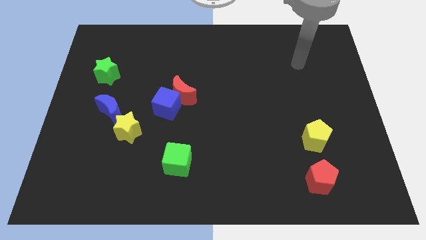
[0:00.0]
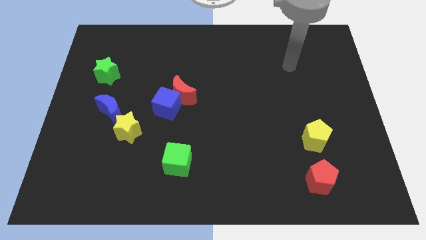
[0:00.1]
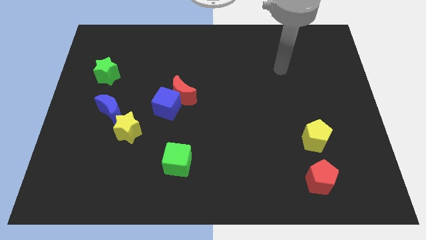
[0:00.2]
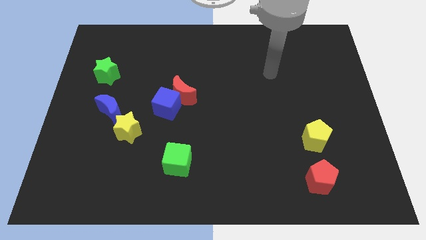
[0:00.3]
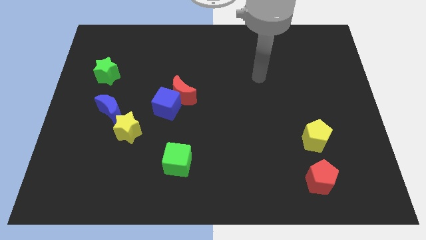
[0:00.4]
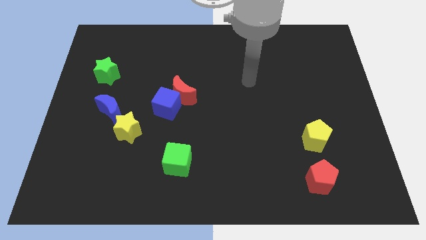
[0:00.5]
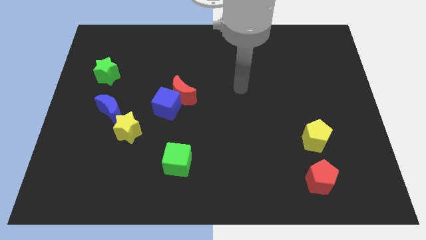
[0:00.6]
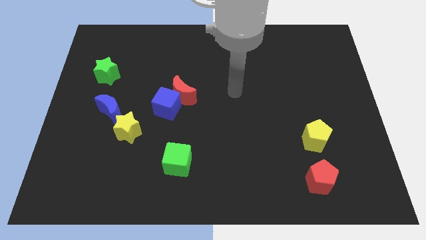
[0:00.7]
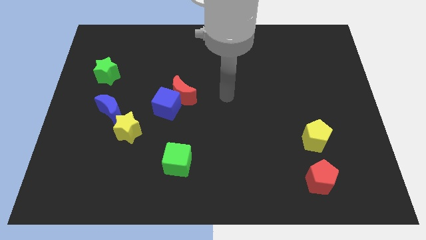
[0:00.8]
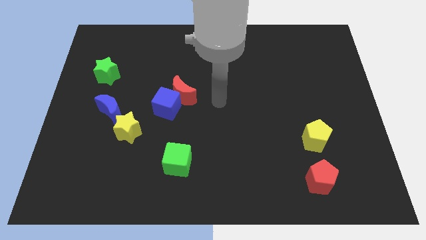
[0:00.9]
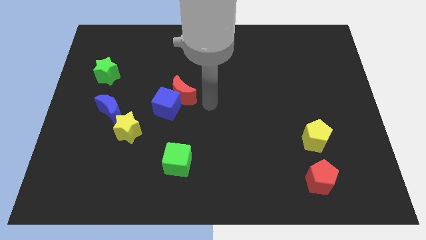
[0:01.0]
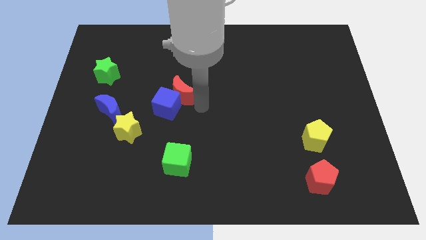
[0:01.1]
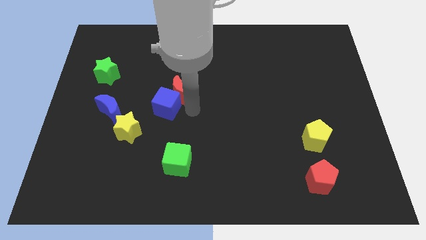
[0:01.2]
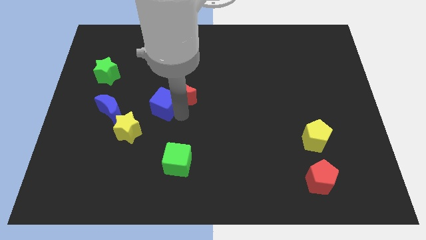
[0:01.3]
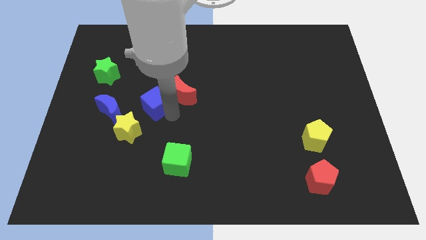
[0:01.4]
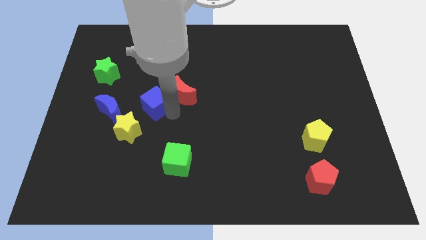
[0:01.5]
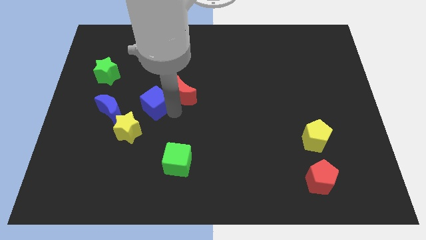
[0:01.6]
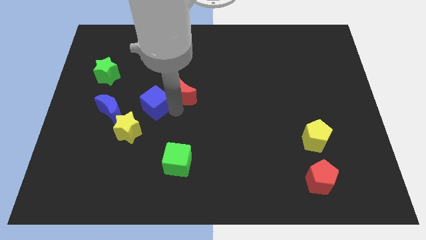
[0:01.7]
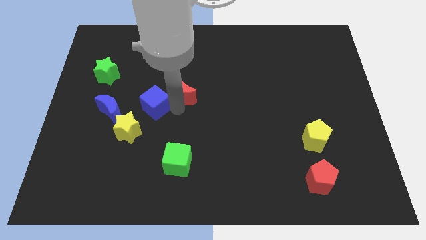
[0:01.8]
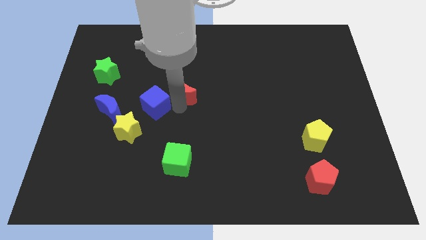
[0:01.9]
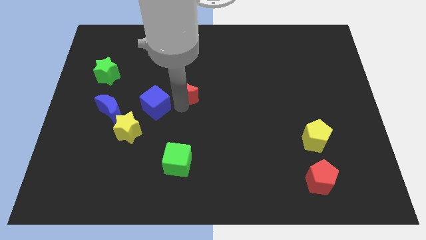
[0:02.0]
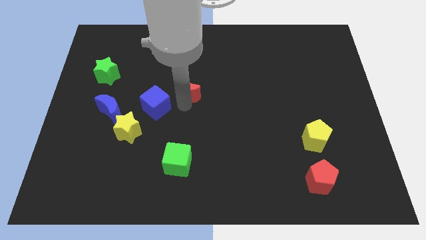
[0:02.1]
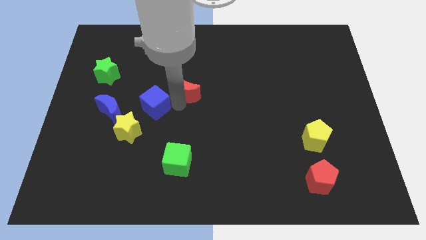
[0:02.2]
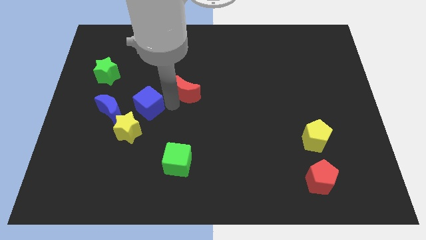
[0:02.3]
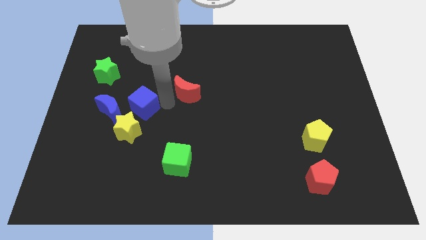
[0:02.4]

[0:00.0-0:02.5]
pull the red moon apart from the blue cube

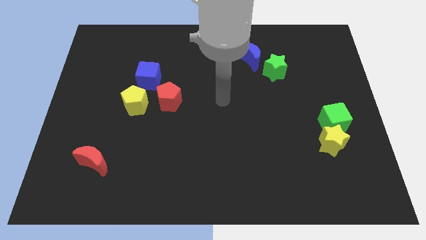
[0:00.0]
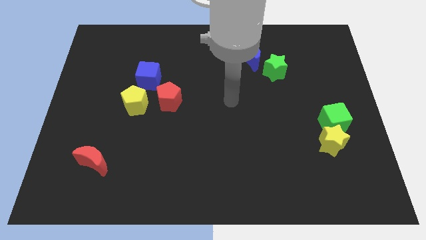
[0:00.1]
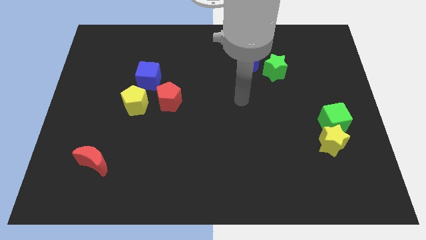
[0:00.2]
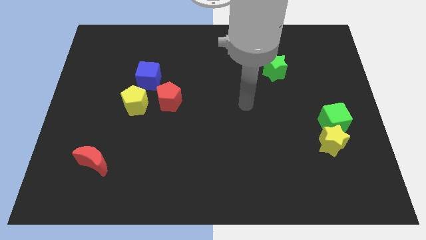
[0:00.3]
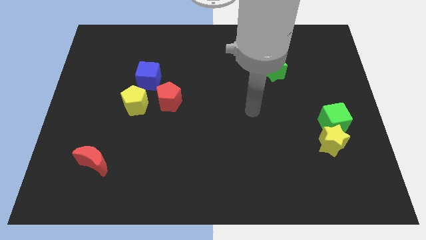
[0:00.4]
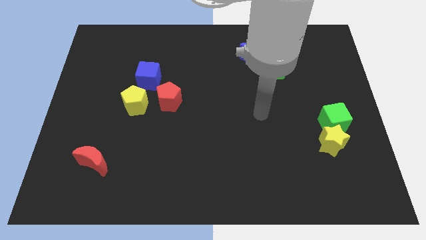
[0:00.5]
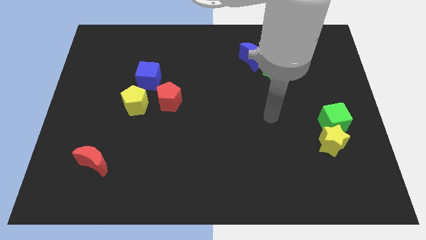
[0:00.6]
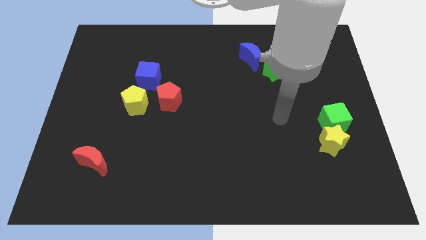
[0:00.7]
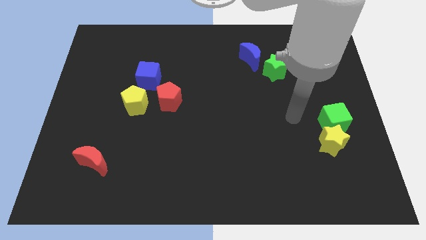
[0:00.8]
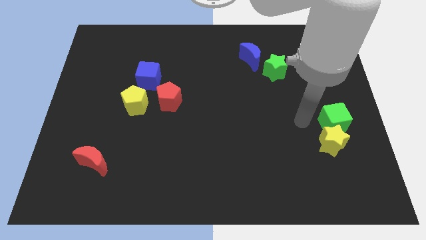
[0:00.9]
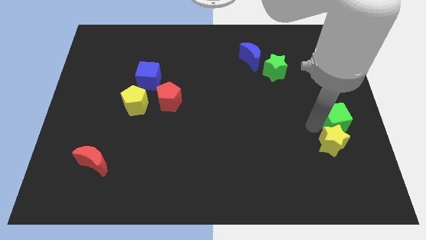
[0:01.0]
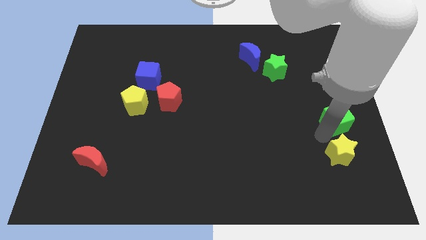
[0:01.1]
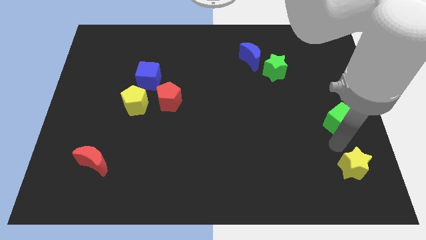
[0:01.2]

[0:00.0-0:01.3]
move the green cube away from the yellow star

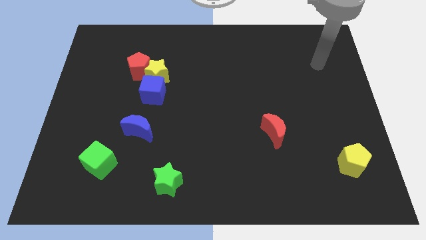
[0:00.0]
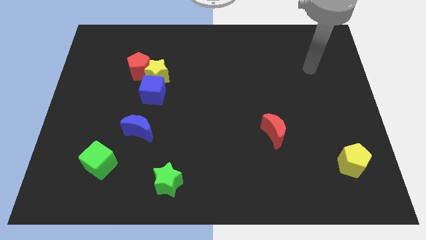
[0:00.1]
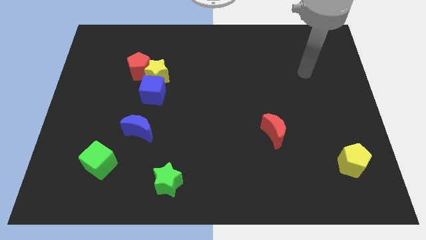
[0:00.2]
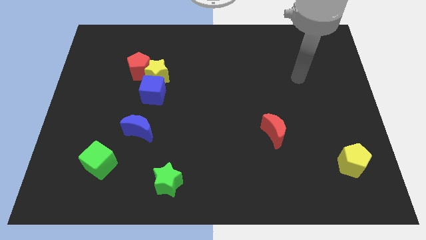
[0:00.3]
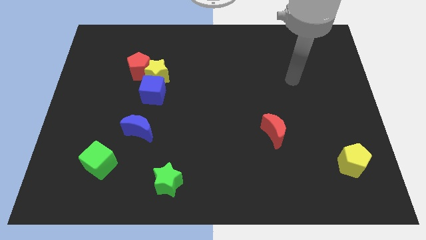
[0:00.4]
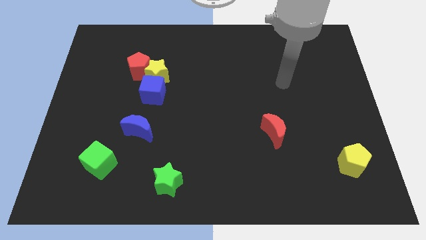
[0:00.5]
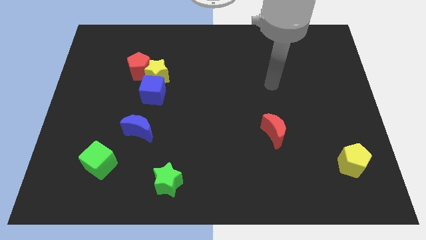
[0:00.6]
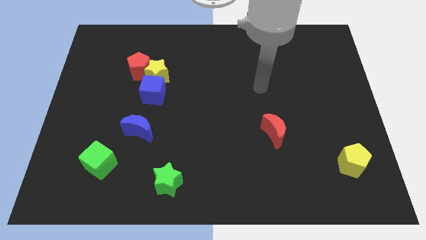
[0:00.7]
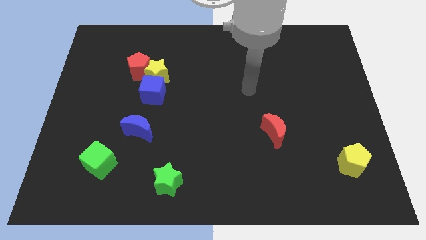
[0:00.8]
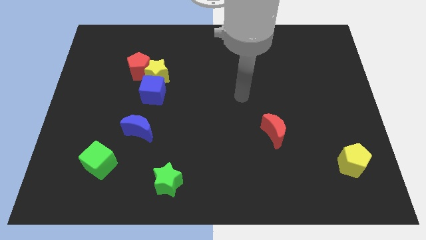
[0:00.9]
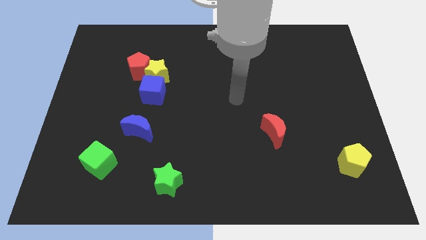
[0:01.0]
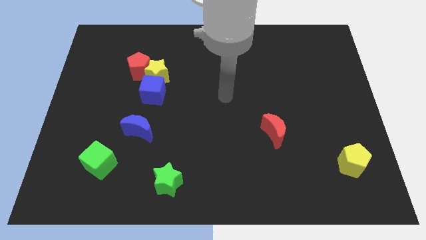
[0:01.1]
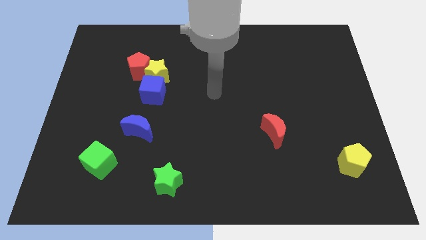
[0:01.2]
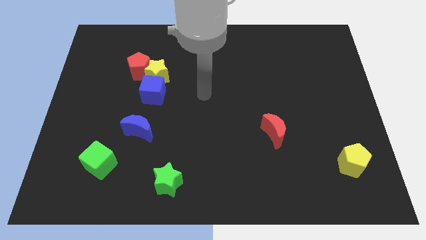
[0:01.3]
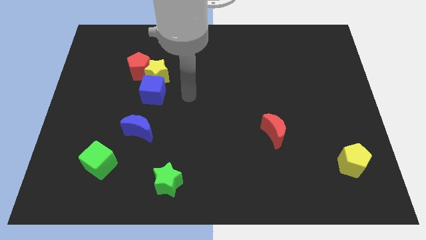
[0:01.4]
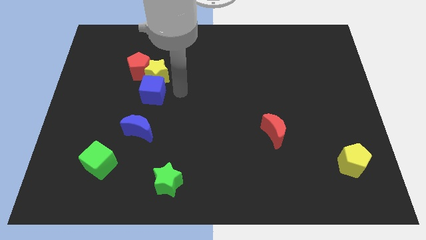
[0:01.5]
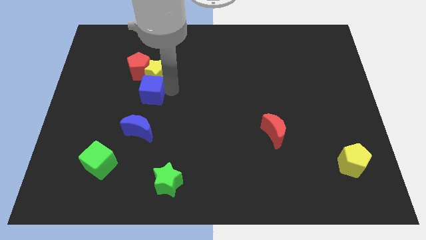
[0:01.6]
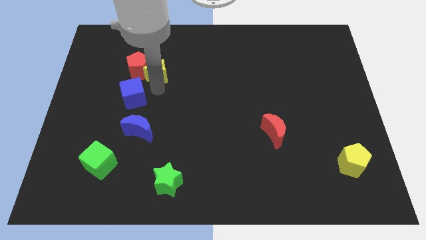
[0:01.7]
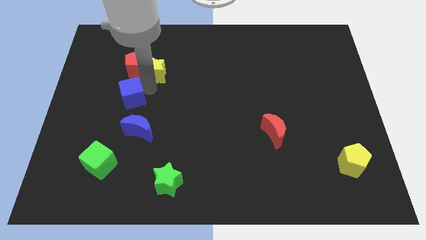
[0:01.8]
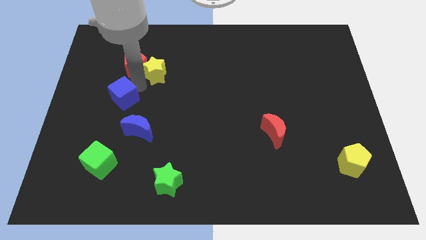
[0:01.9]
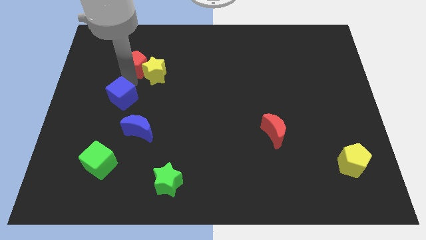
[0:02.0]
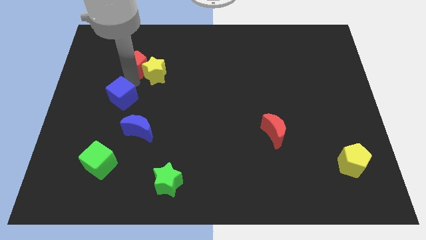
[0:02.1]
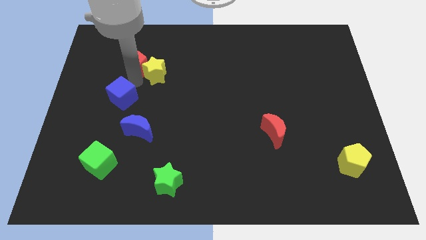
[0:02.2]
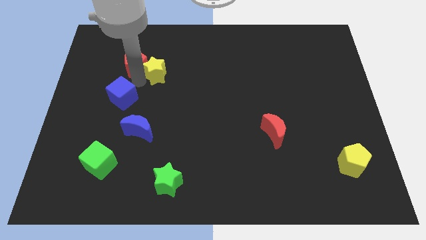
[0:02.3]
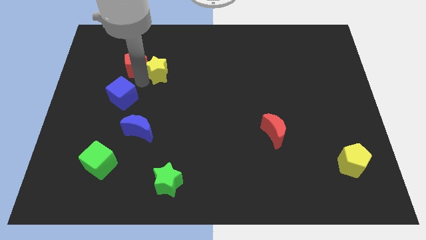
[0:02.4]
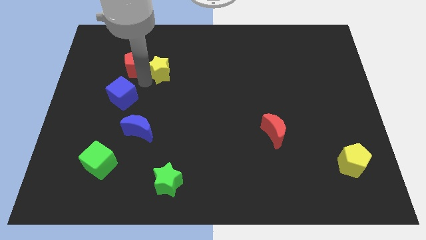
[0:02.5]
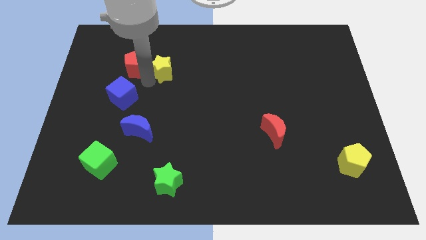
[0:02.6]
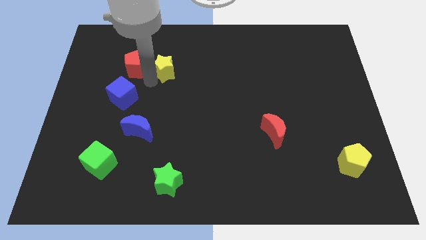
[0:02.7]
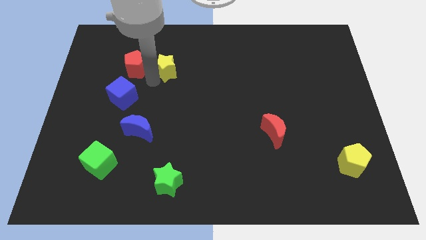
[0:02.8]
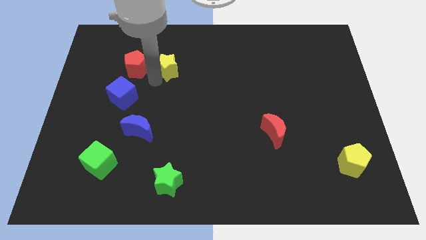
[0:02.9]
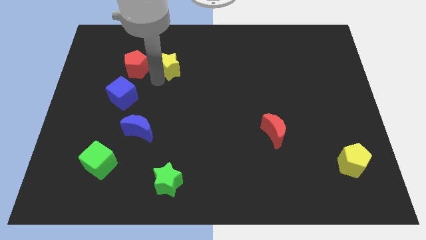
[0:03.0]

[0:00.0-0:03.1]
separate the yellow star from the blue cube and red pentagon

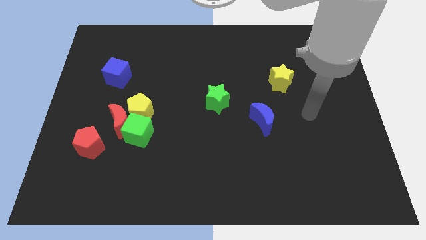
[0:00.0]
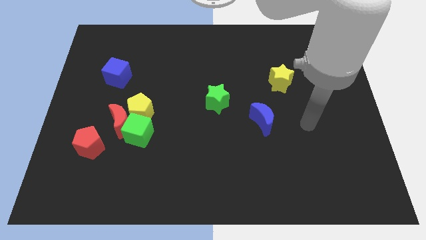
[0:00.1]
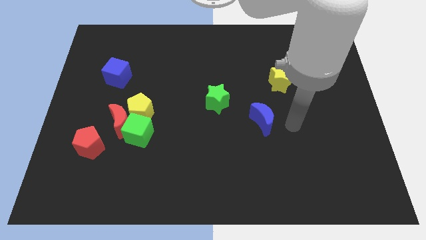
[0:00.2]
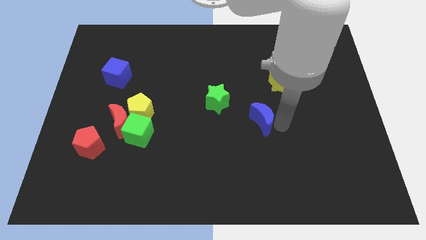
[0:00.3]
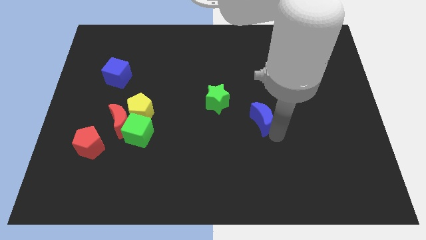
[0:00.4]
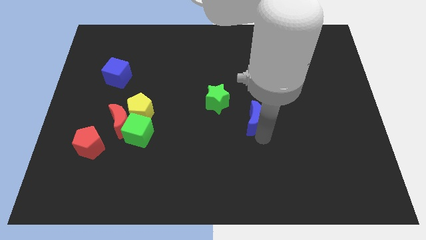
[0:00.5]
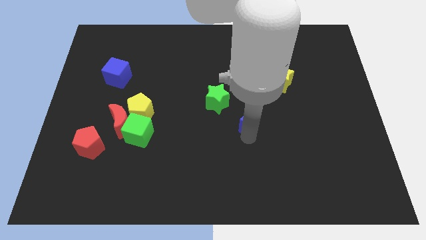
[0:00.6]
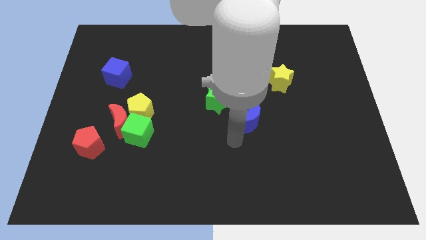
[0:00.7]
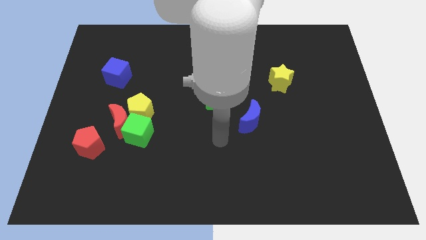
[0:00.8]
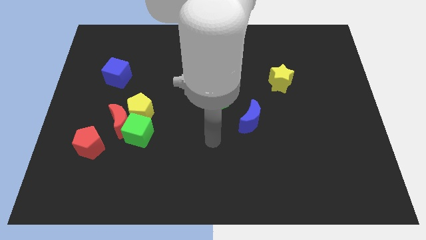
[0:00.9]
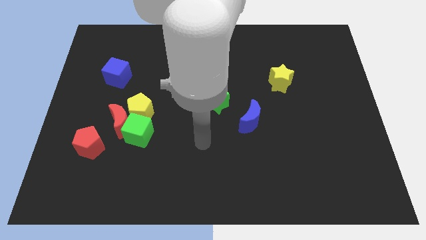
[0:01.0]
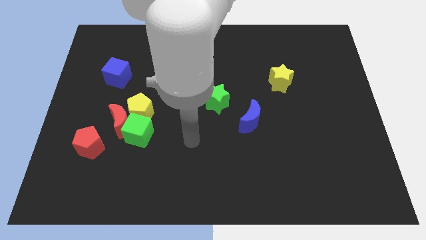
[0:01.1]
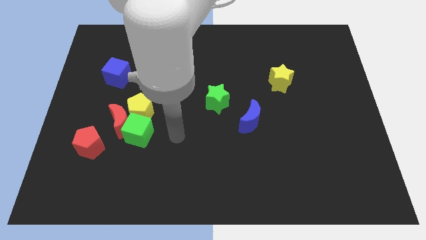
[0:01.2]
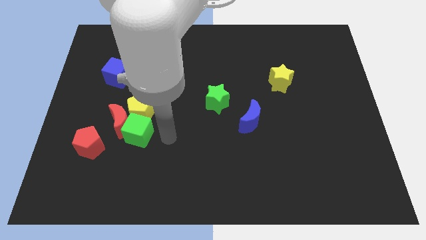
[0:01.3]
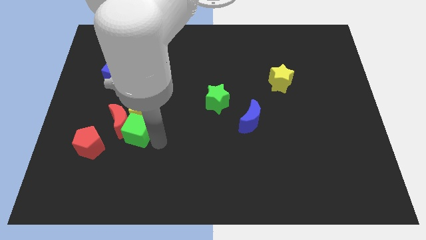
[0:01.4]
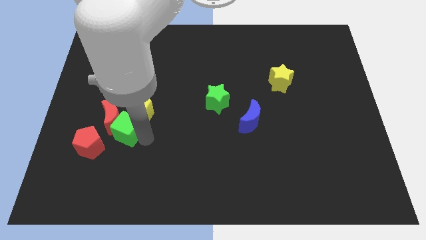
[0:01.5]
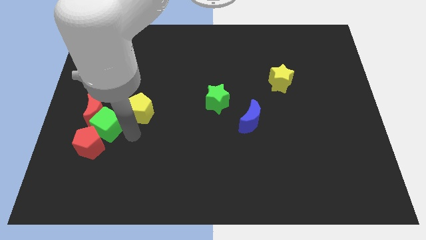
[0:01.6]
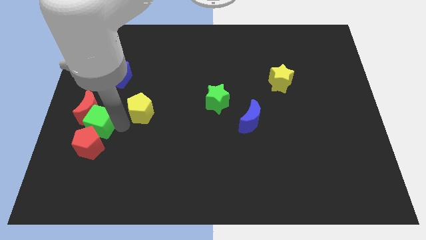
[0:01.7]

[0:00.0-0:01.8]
move the yellow pentagon away from the red moon and green cube

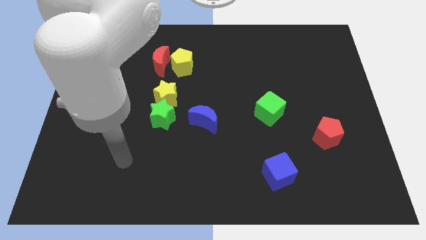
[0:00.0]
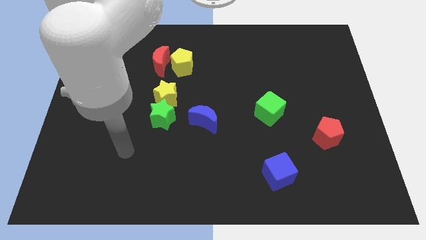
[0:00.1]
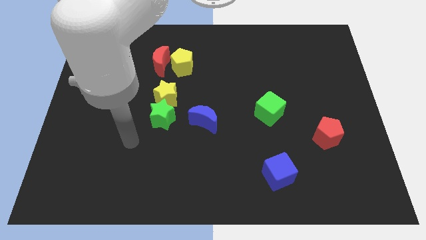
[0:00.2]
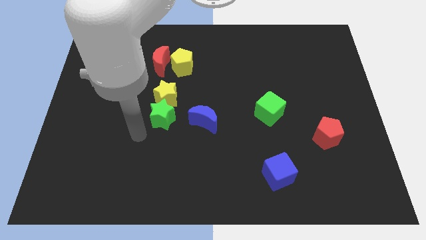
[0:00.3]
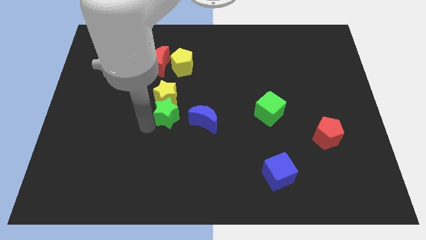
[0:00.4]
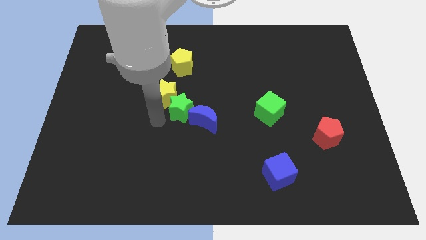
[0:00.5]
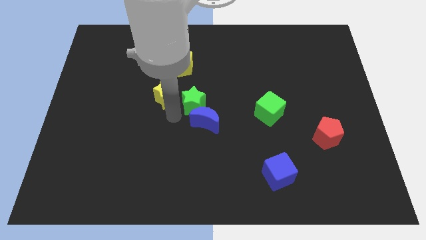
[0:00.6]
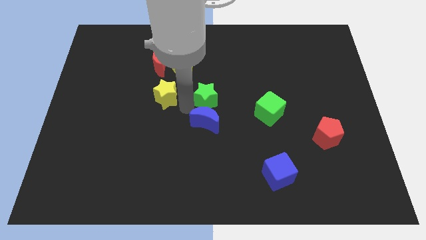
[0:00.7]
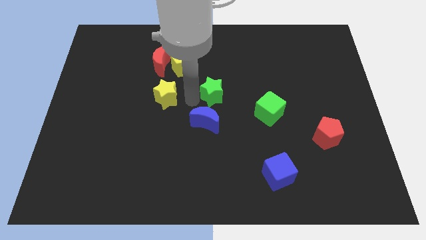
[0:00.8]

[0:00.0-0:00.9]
separate the yellow star from the green star
